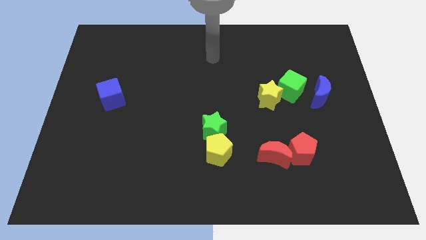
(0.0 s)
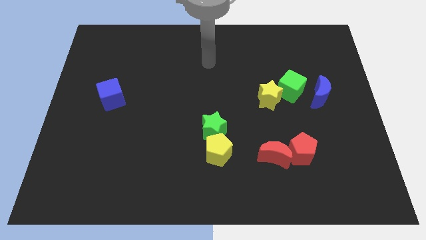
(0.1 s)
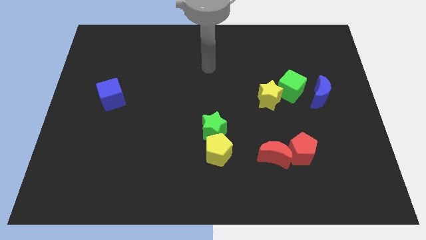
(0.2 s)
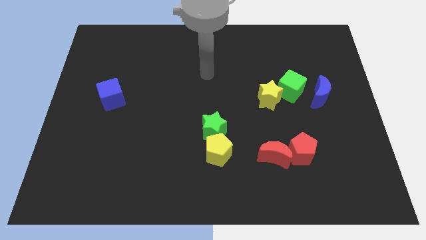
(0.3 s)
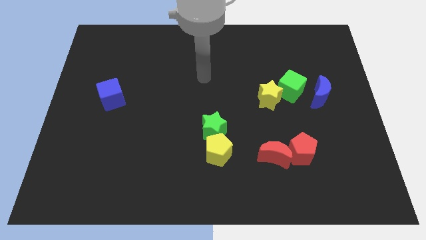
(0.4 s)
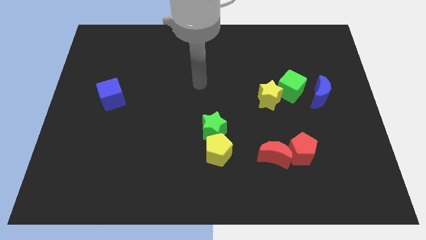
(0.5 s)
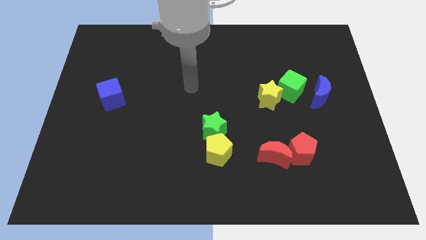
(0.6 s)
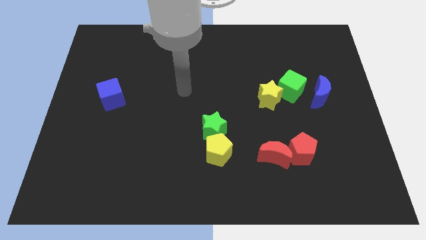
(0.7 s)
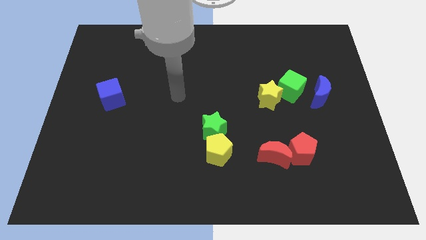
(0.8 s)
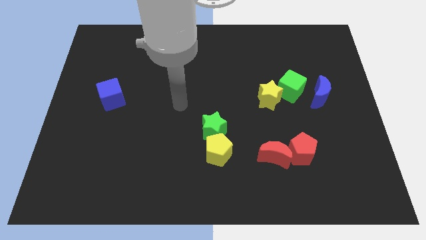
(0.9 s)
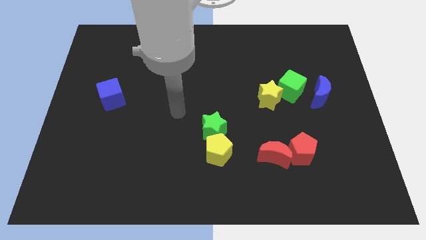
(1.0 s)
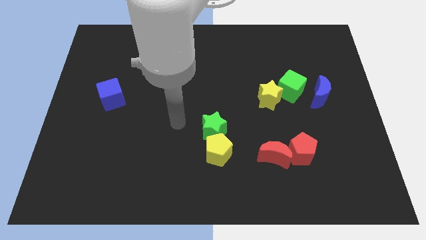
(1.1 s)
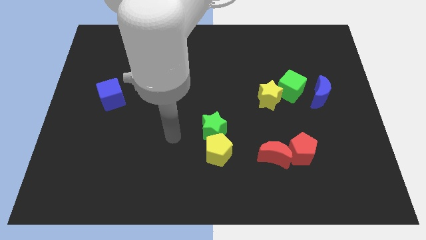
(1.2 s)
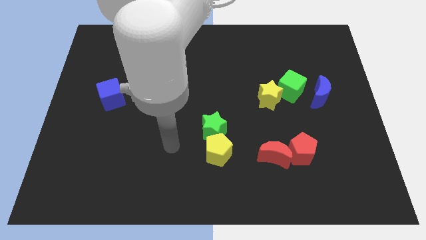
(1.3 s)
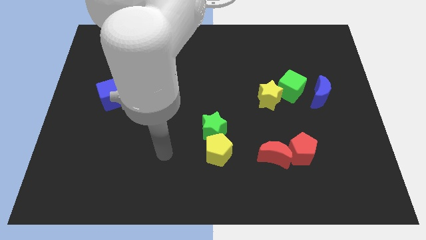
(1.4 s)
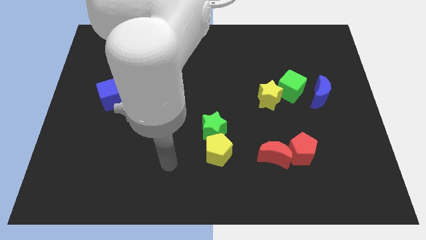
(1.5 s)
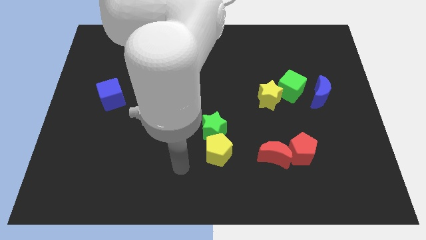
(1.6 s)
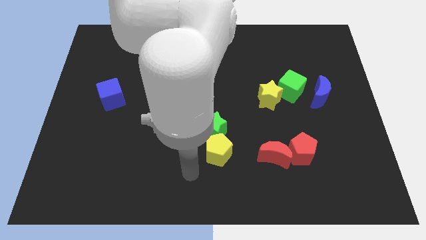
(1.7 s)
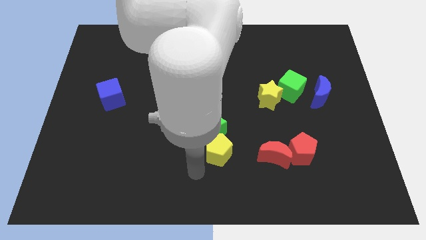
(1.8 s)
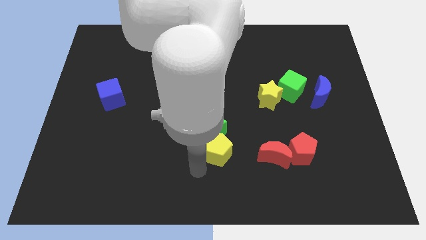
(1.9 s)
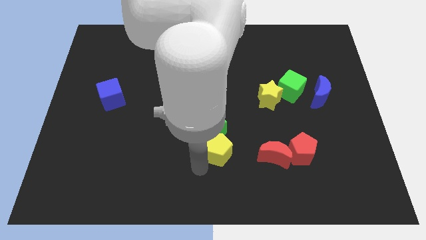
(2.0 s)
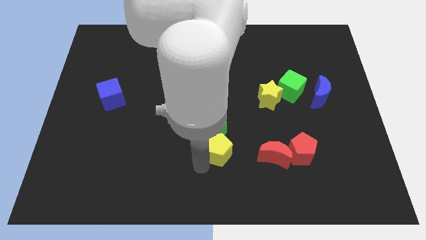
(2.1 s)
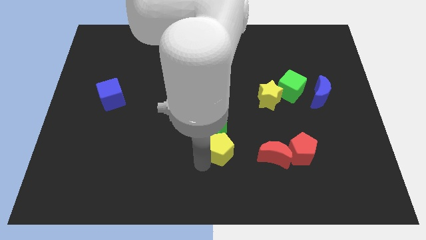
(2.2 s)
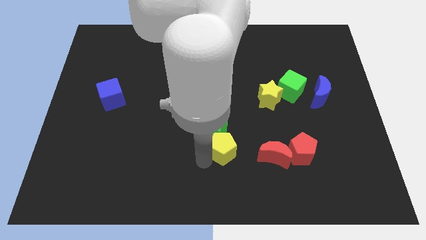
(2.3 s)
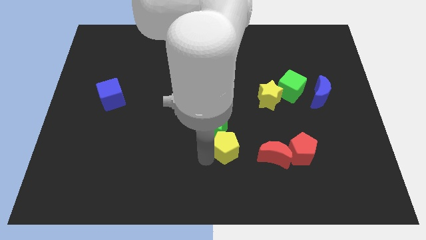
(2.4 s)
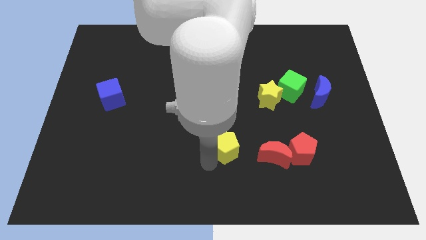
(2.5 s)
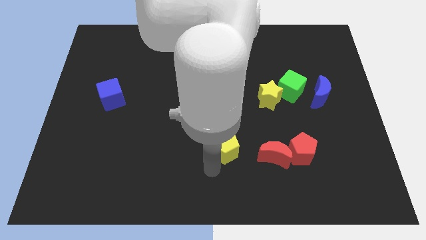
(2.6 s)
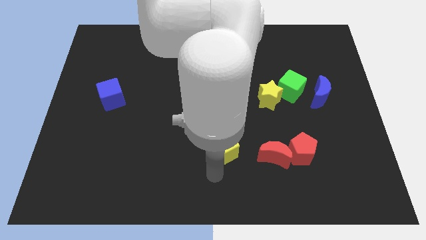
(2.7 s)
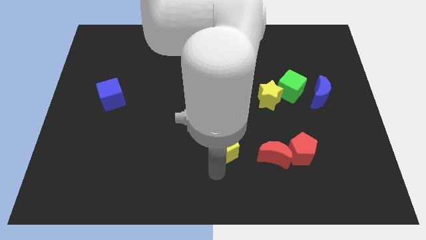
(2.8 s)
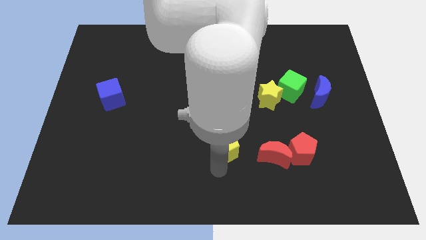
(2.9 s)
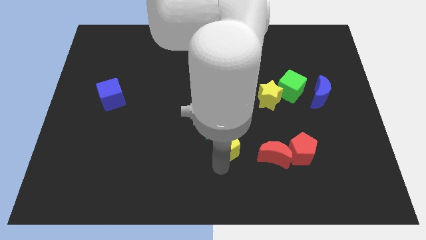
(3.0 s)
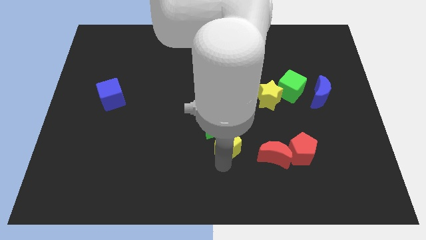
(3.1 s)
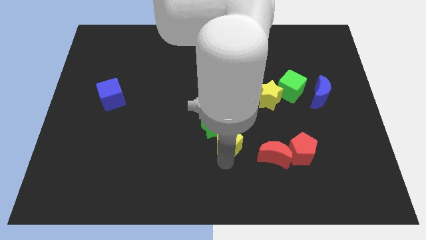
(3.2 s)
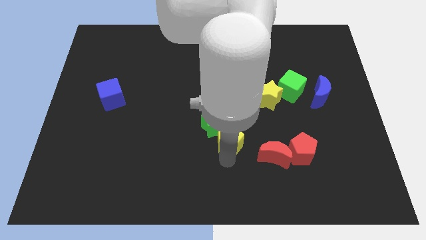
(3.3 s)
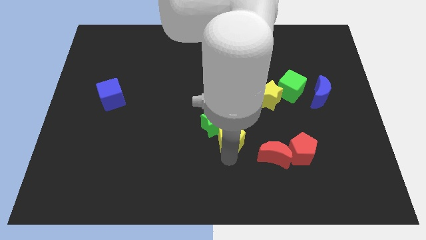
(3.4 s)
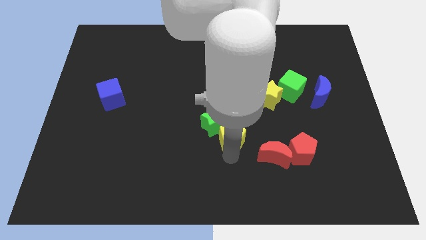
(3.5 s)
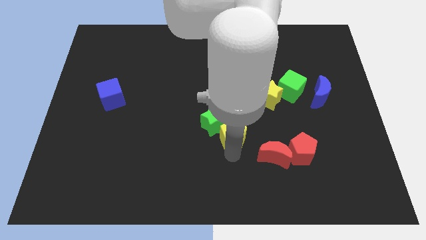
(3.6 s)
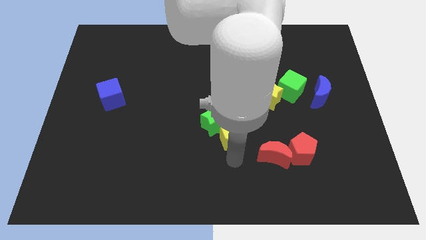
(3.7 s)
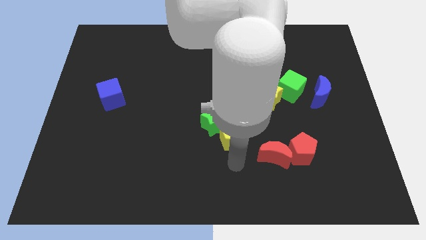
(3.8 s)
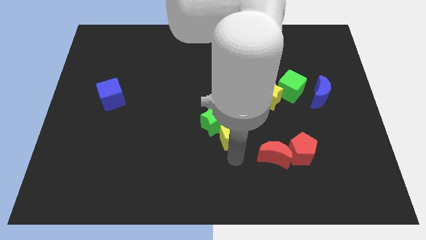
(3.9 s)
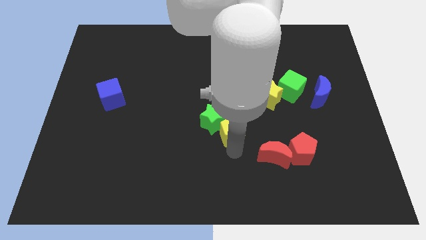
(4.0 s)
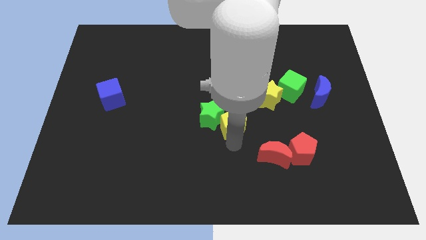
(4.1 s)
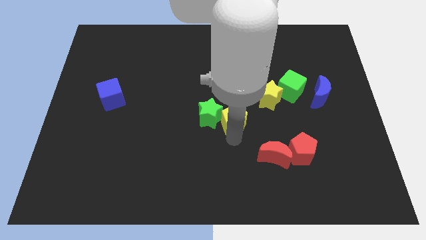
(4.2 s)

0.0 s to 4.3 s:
push the yellow pentagon slightly upwards

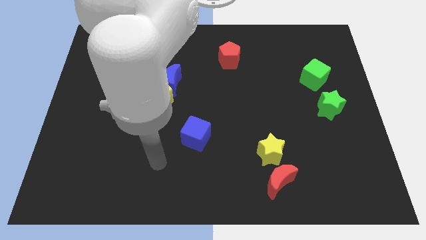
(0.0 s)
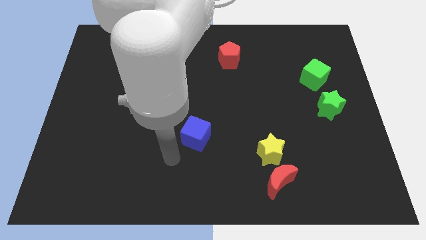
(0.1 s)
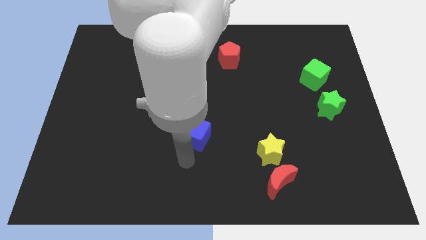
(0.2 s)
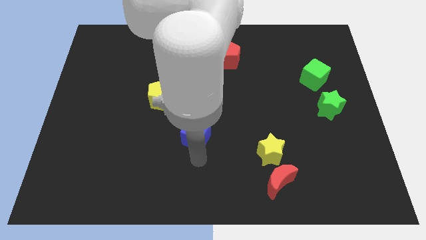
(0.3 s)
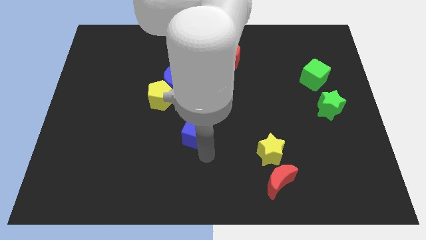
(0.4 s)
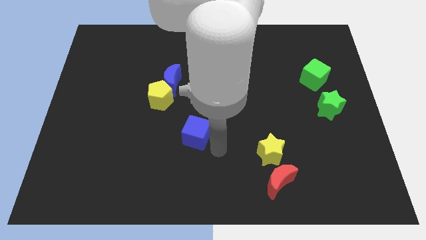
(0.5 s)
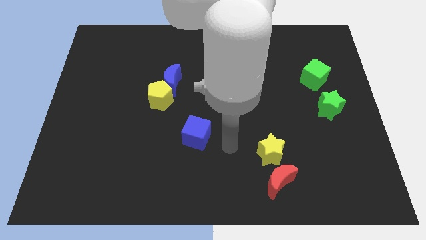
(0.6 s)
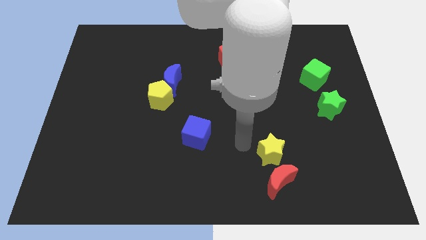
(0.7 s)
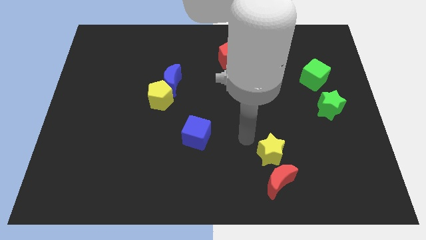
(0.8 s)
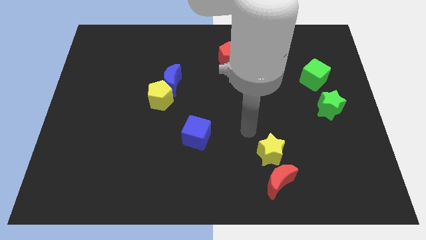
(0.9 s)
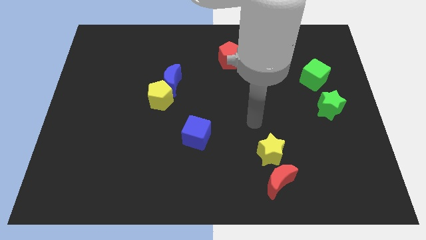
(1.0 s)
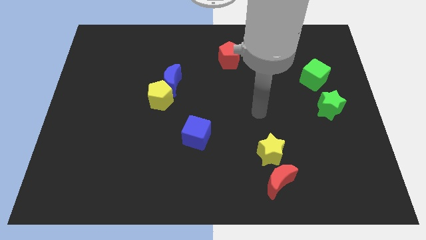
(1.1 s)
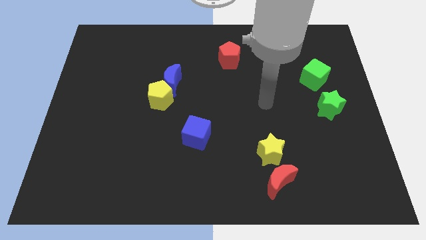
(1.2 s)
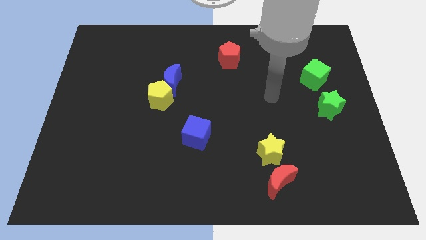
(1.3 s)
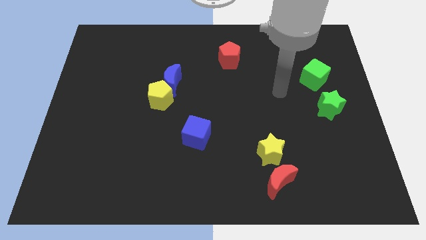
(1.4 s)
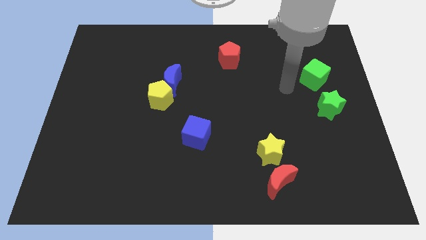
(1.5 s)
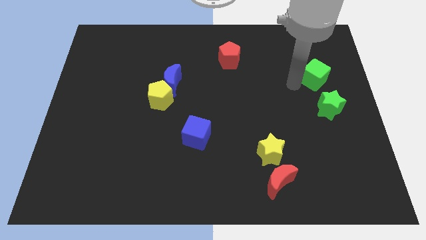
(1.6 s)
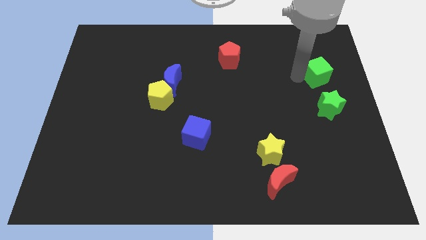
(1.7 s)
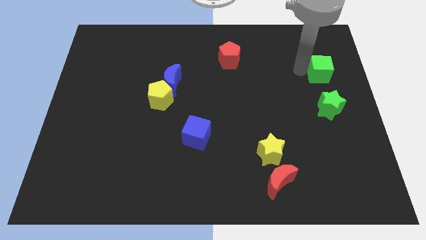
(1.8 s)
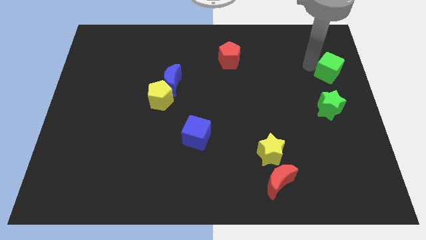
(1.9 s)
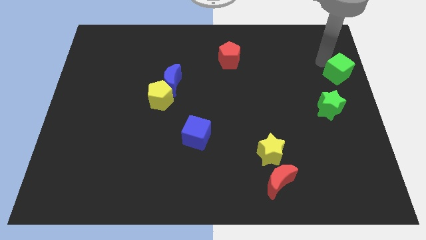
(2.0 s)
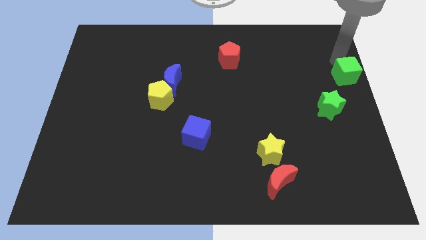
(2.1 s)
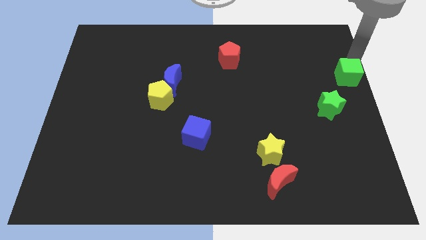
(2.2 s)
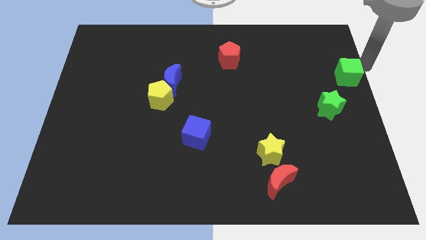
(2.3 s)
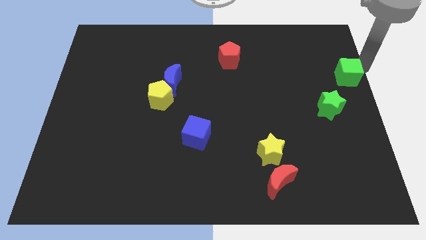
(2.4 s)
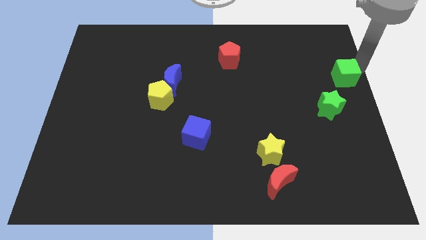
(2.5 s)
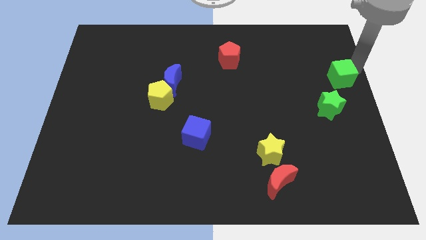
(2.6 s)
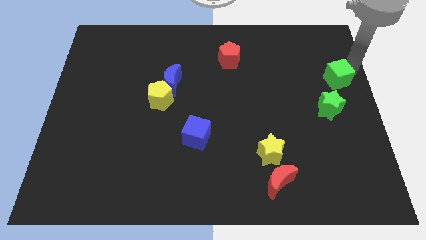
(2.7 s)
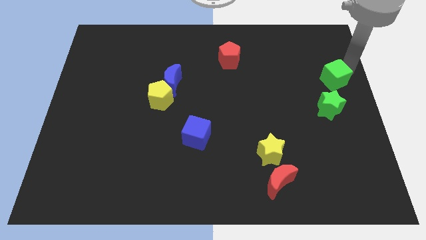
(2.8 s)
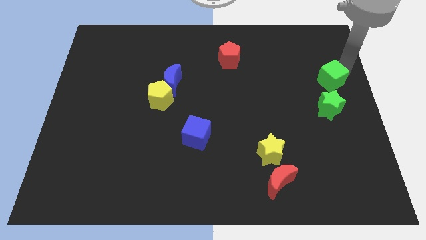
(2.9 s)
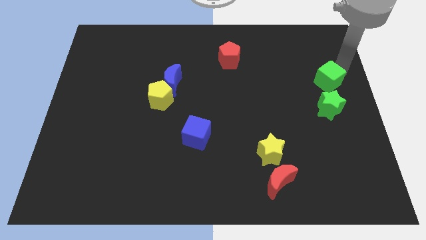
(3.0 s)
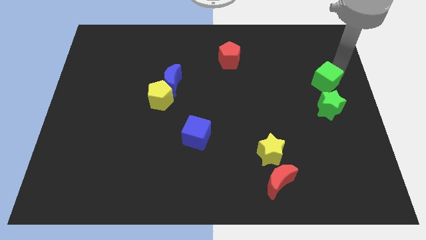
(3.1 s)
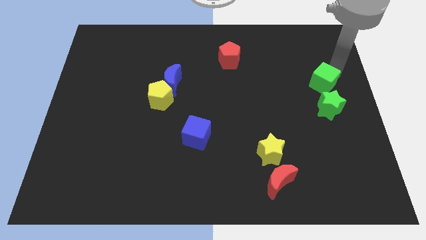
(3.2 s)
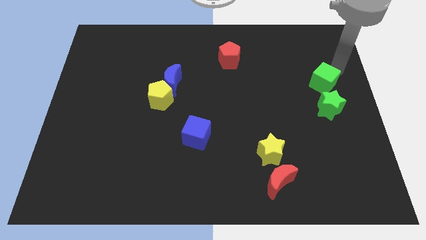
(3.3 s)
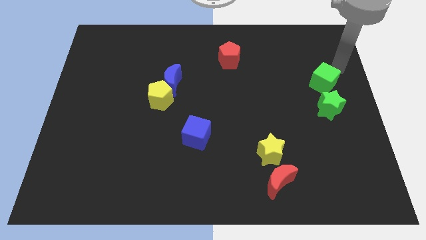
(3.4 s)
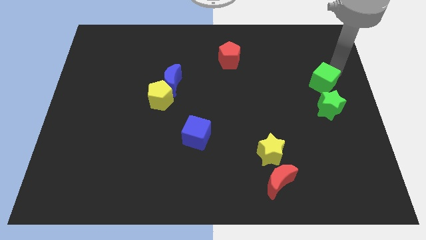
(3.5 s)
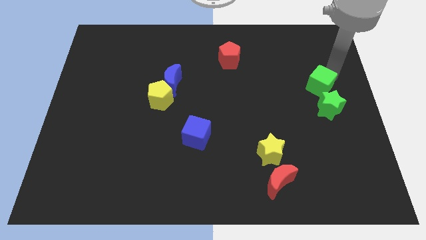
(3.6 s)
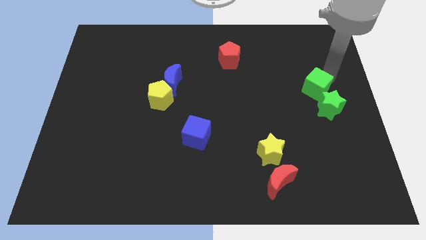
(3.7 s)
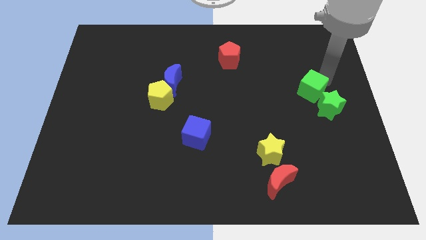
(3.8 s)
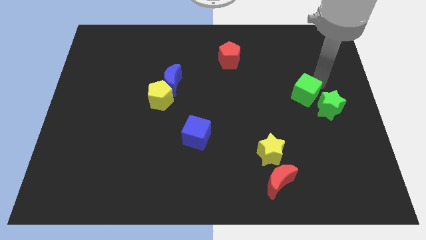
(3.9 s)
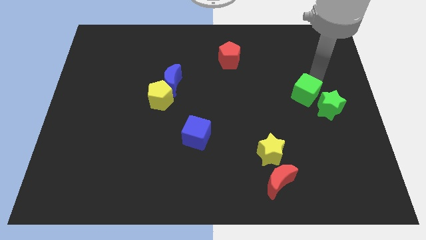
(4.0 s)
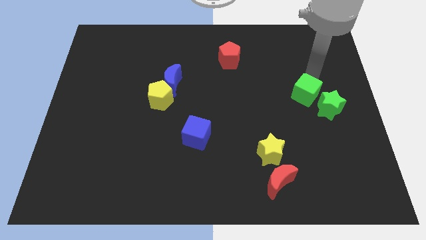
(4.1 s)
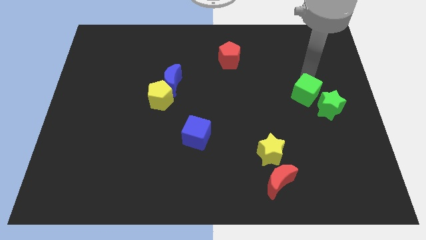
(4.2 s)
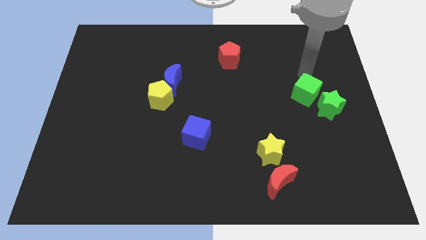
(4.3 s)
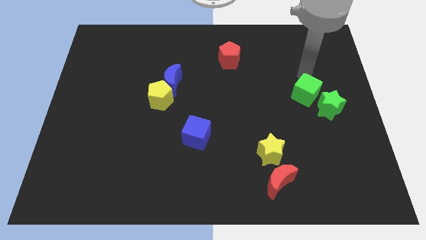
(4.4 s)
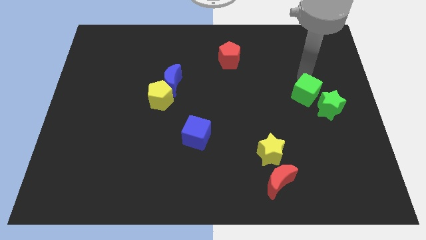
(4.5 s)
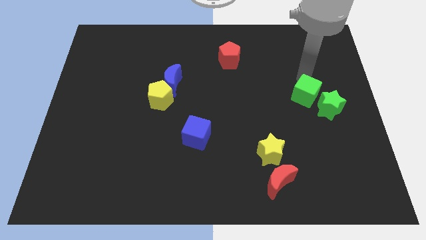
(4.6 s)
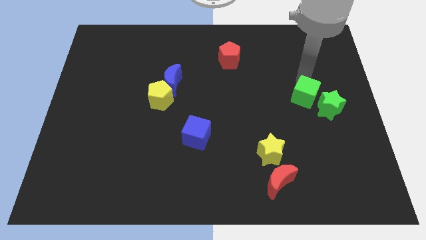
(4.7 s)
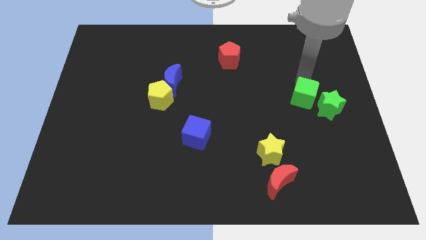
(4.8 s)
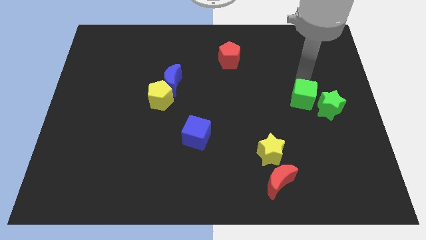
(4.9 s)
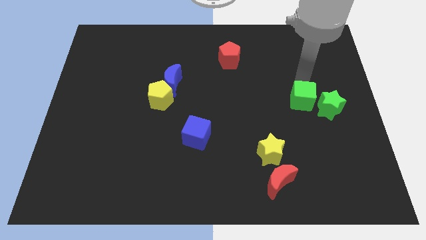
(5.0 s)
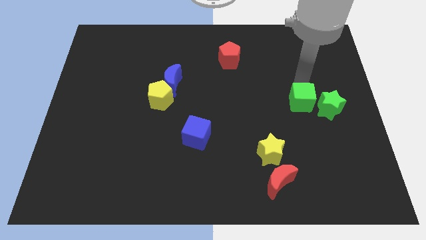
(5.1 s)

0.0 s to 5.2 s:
push the green cube a bit down
